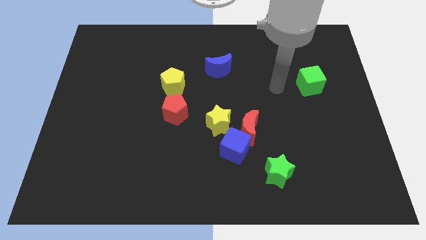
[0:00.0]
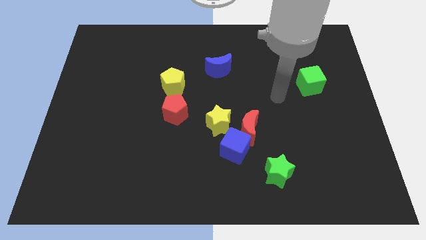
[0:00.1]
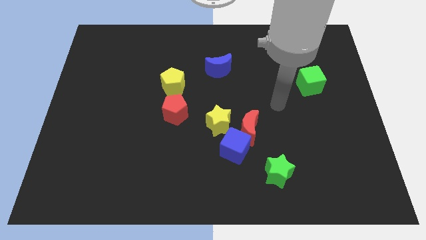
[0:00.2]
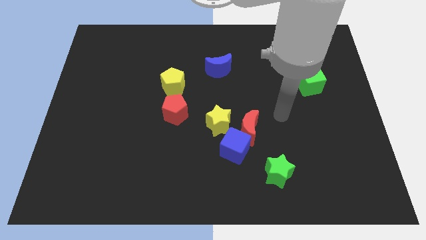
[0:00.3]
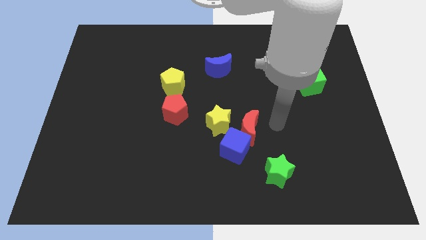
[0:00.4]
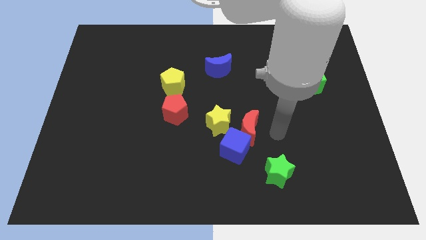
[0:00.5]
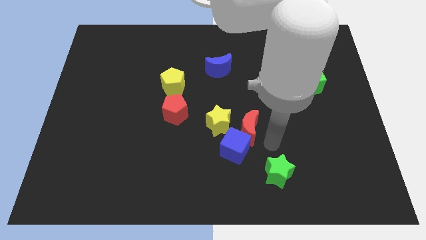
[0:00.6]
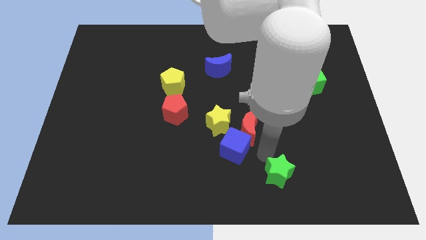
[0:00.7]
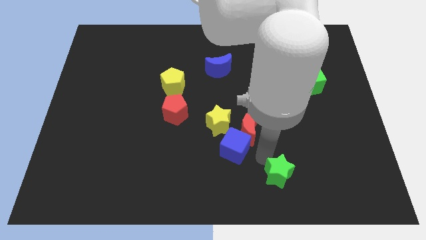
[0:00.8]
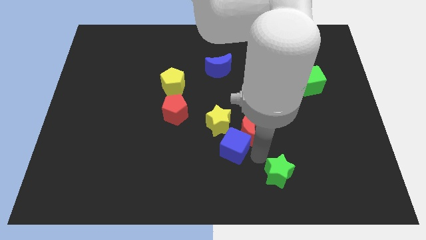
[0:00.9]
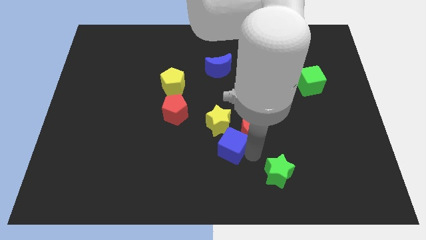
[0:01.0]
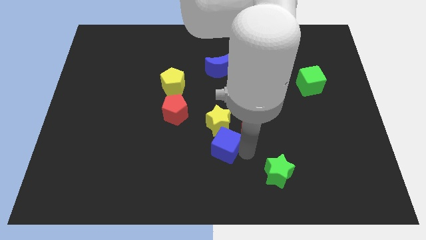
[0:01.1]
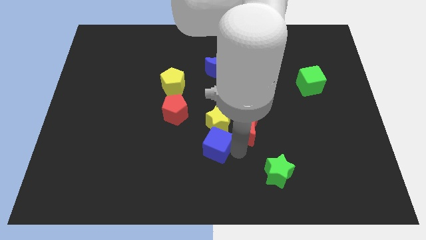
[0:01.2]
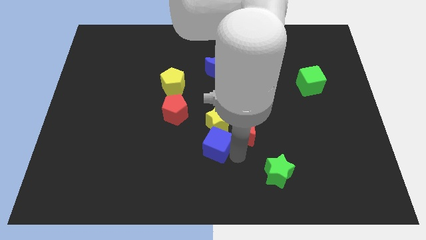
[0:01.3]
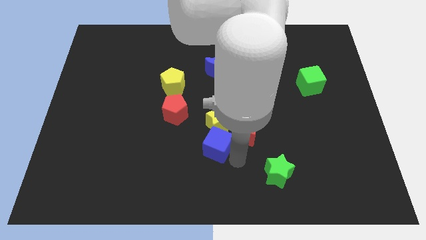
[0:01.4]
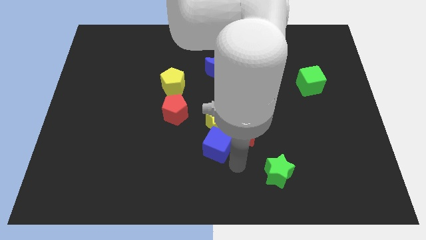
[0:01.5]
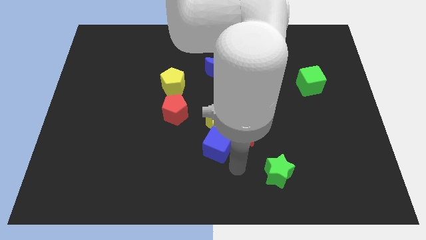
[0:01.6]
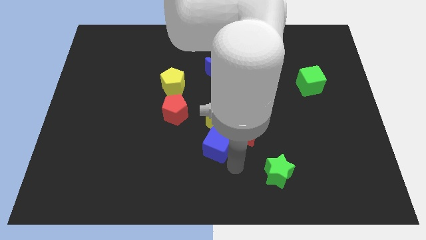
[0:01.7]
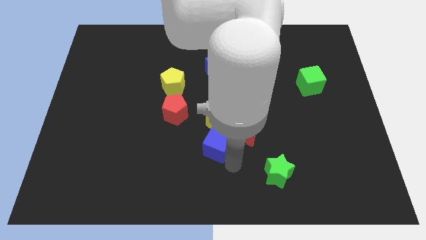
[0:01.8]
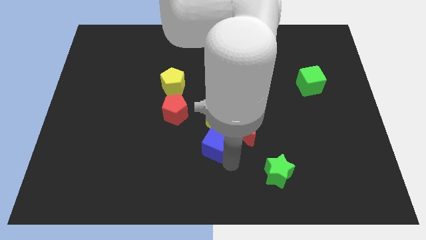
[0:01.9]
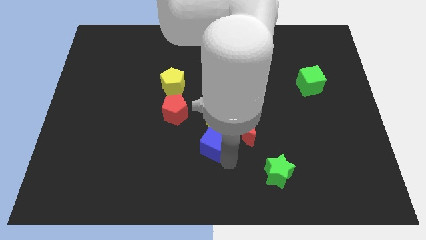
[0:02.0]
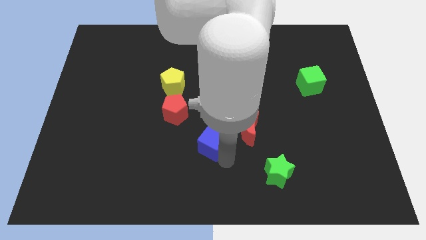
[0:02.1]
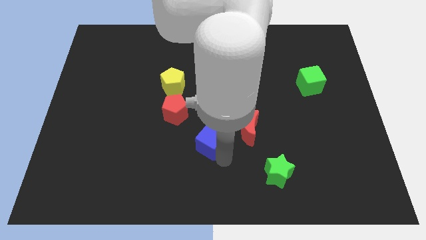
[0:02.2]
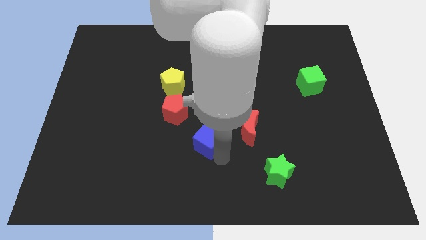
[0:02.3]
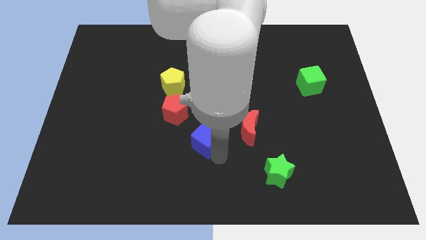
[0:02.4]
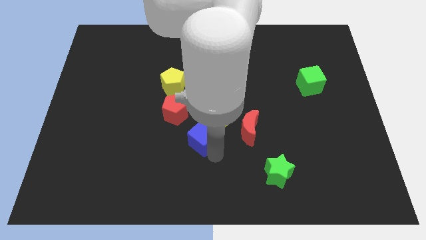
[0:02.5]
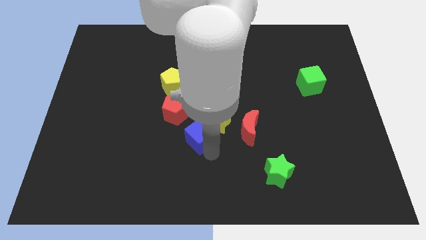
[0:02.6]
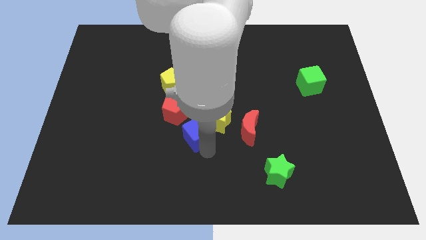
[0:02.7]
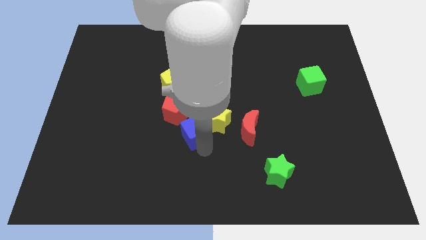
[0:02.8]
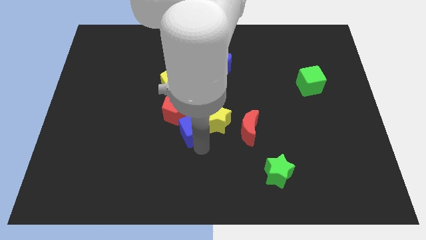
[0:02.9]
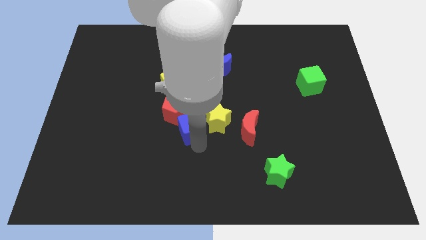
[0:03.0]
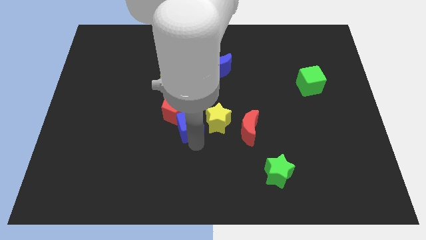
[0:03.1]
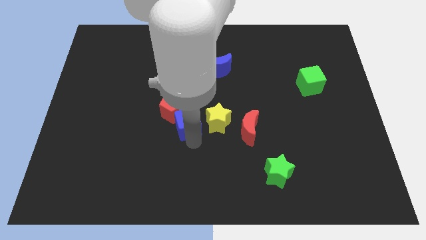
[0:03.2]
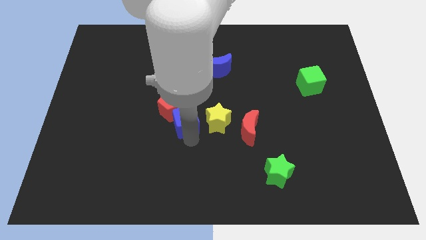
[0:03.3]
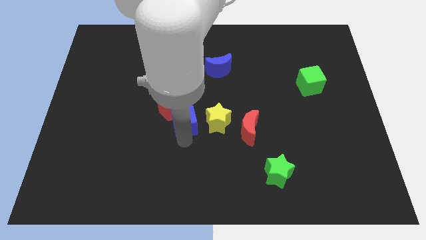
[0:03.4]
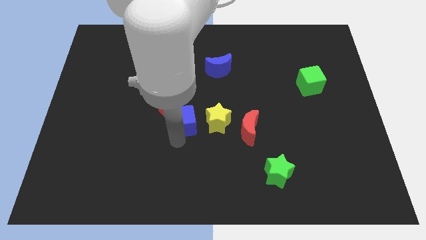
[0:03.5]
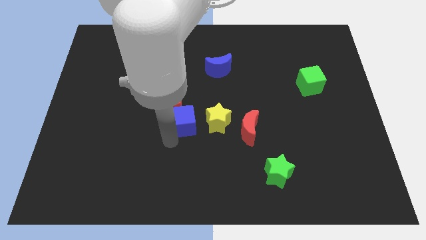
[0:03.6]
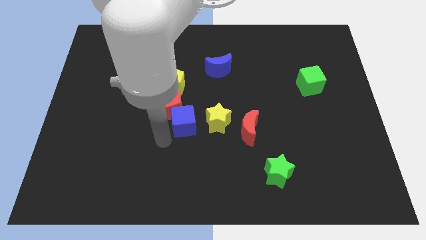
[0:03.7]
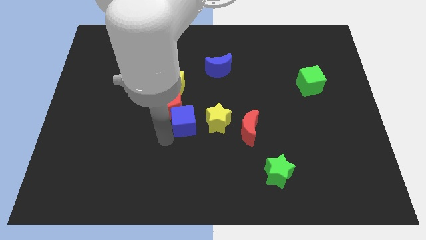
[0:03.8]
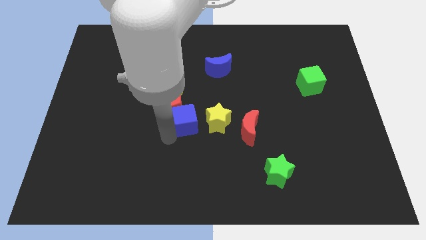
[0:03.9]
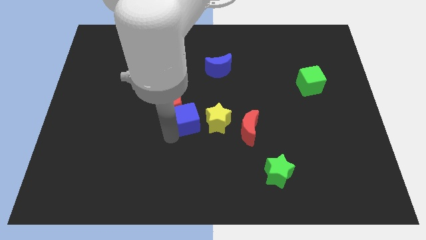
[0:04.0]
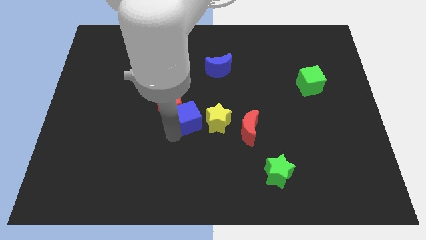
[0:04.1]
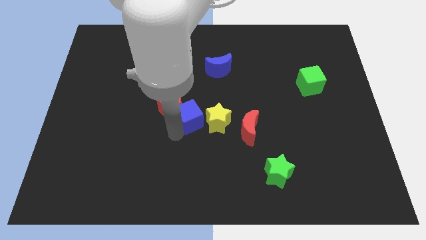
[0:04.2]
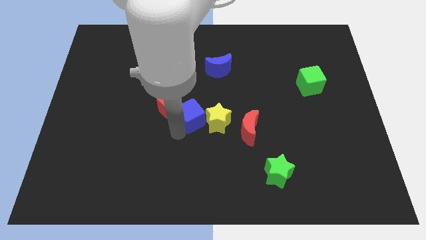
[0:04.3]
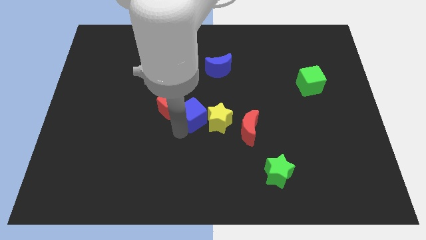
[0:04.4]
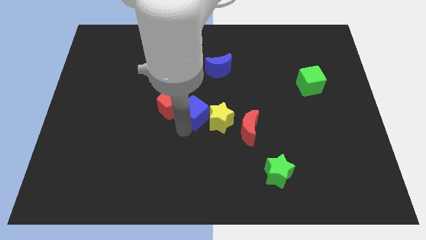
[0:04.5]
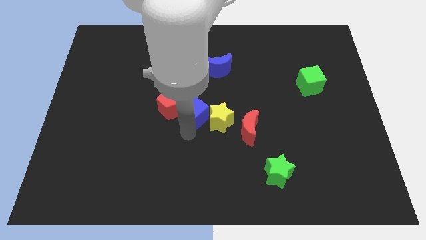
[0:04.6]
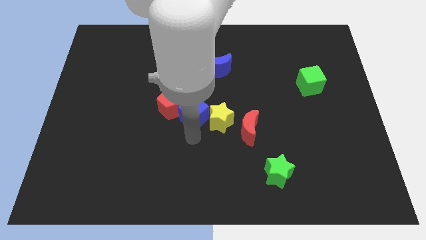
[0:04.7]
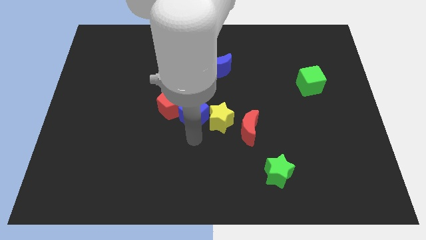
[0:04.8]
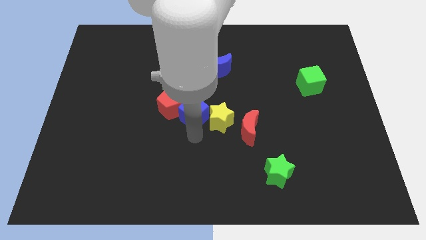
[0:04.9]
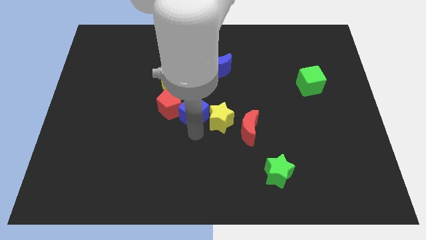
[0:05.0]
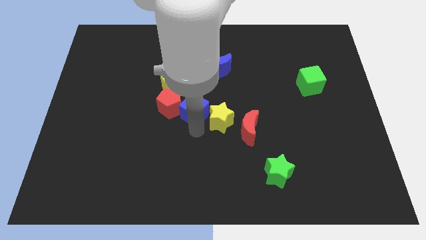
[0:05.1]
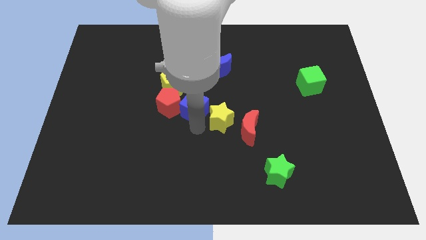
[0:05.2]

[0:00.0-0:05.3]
slide the blue cube to the top right side of the red pentagon

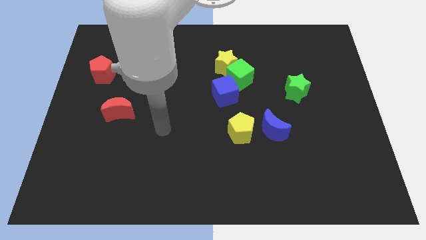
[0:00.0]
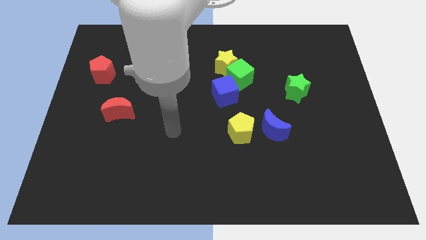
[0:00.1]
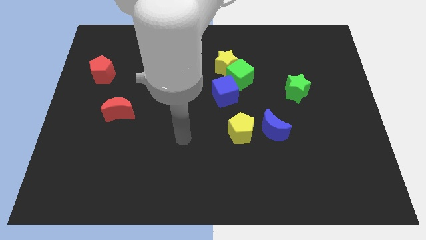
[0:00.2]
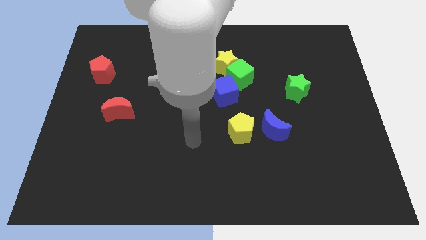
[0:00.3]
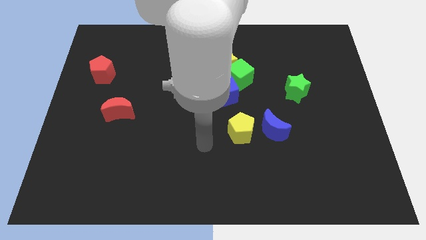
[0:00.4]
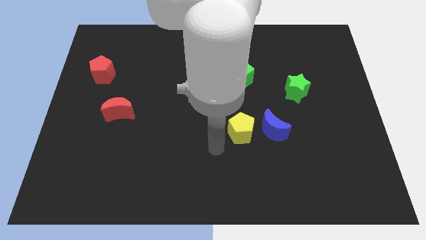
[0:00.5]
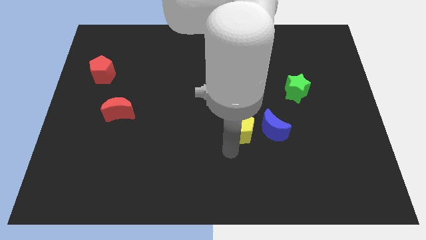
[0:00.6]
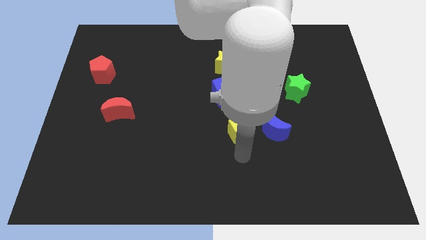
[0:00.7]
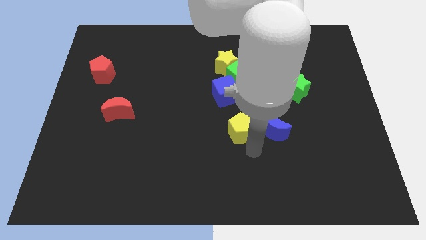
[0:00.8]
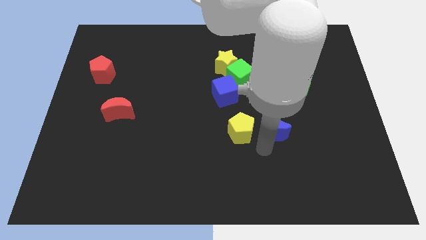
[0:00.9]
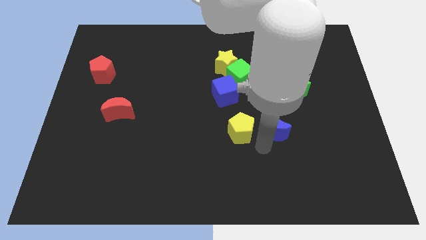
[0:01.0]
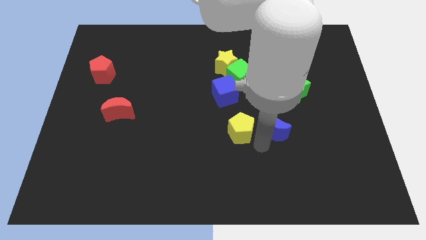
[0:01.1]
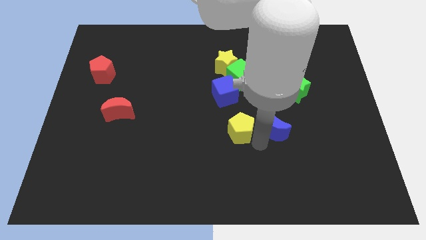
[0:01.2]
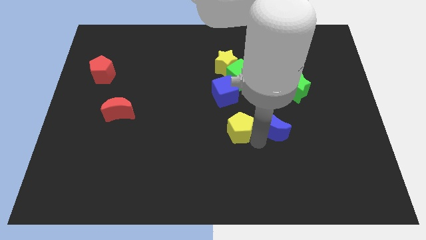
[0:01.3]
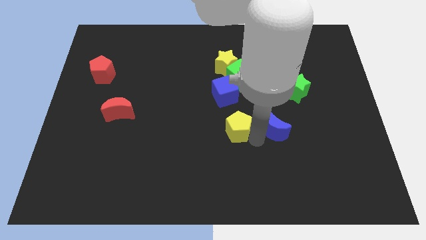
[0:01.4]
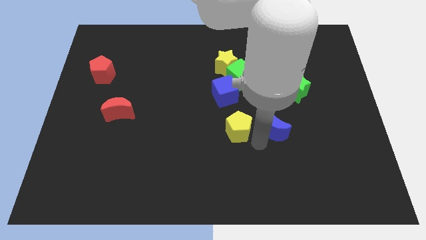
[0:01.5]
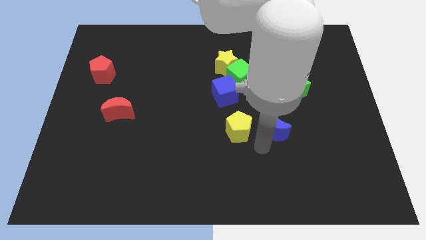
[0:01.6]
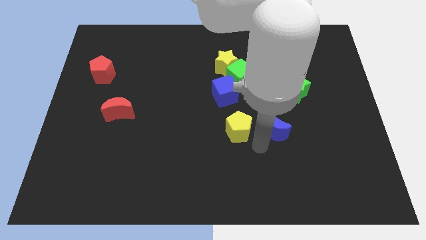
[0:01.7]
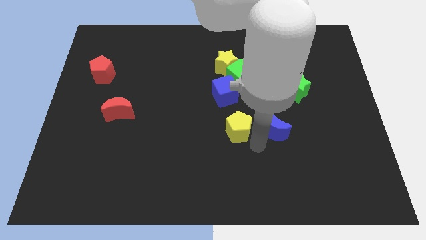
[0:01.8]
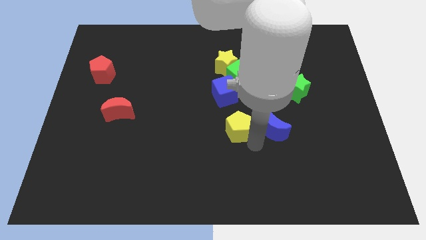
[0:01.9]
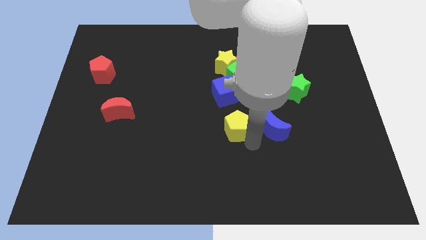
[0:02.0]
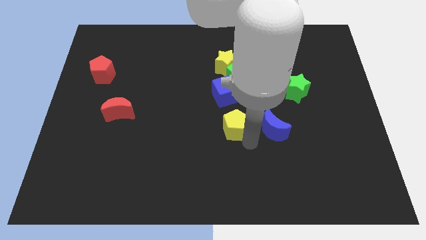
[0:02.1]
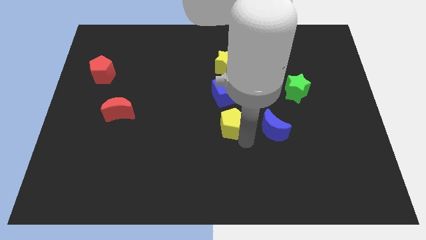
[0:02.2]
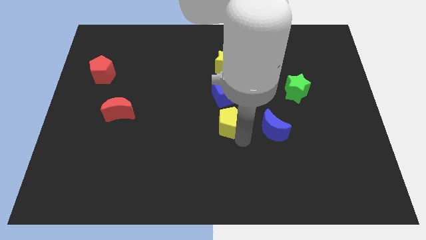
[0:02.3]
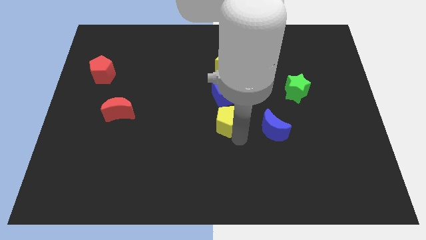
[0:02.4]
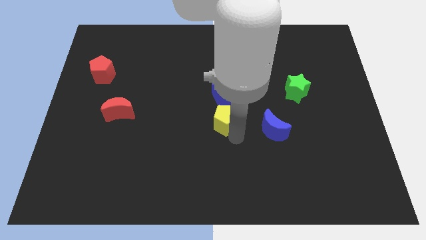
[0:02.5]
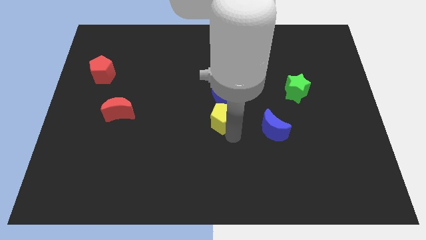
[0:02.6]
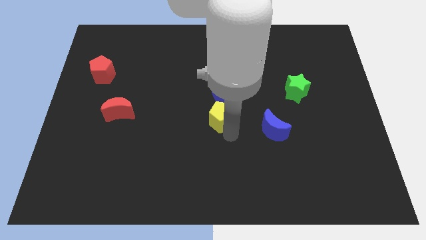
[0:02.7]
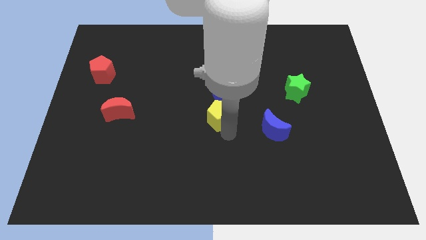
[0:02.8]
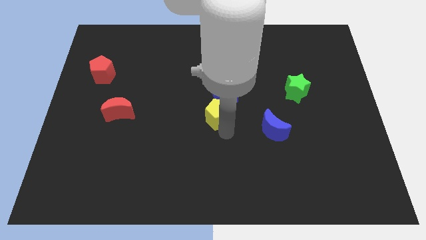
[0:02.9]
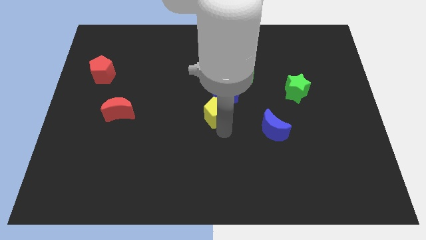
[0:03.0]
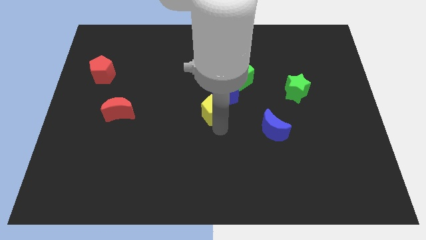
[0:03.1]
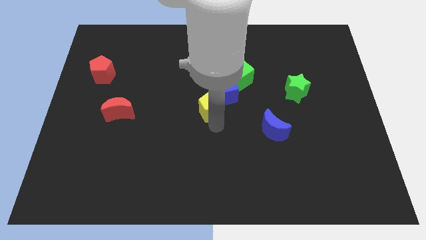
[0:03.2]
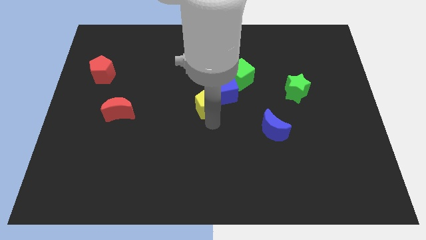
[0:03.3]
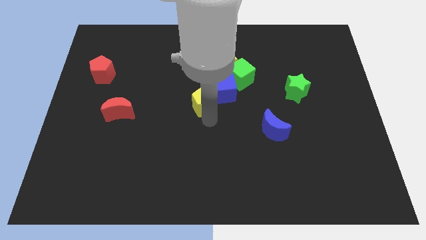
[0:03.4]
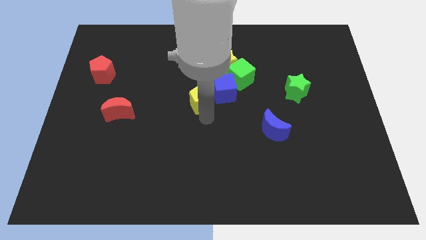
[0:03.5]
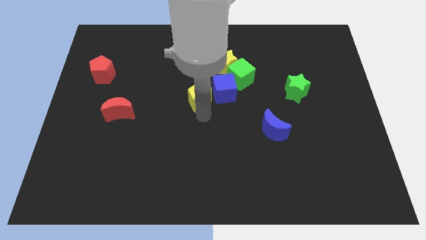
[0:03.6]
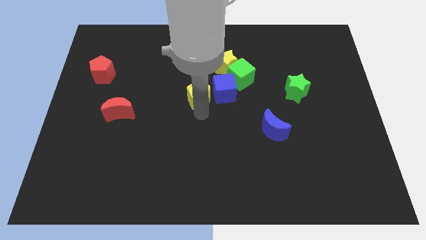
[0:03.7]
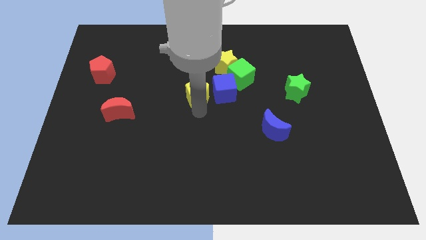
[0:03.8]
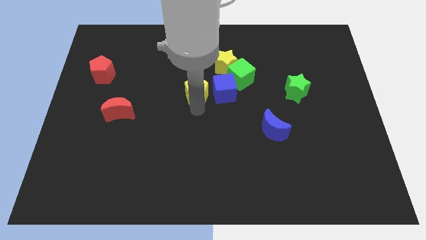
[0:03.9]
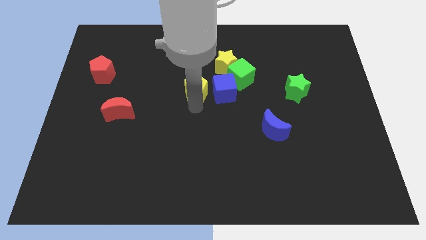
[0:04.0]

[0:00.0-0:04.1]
push the yellow pentagon to the left side of the green cube
